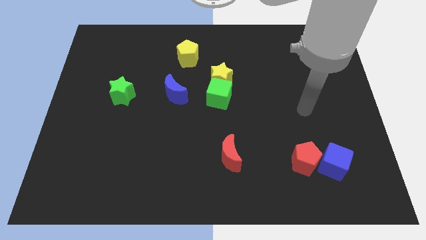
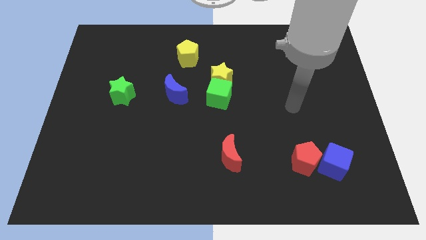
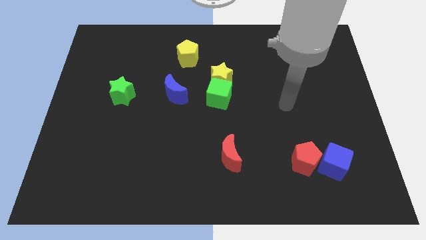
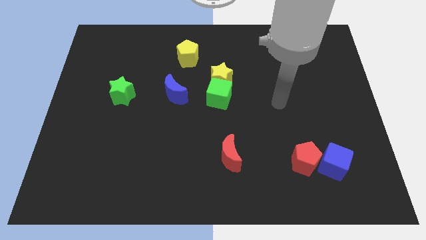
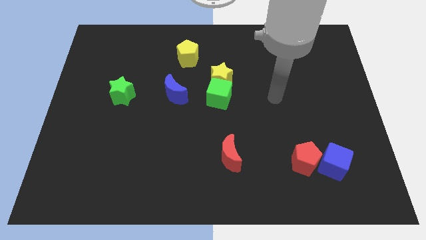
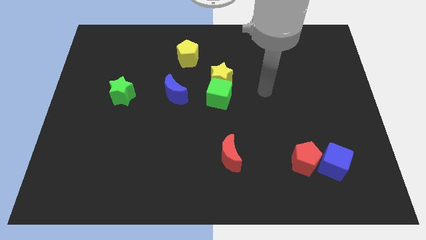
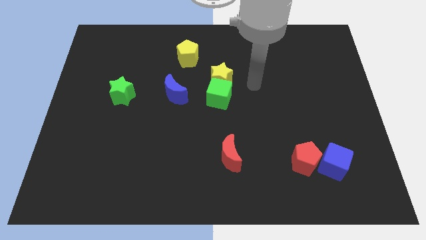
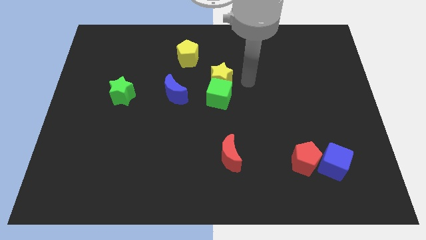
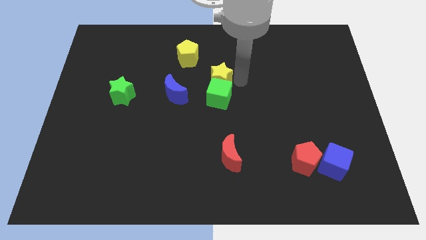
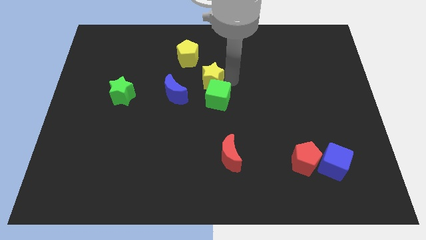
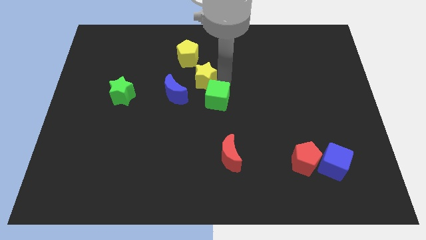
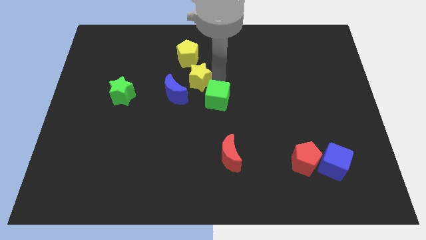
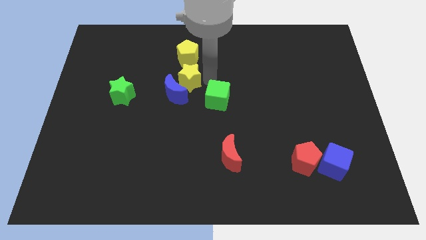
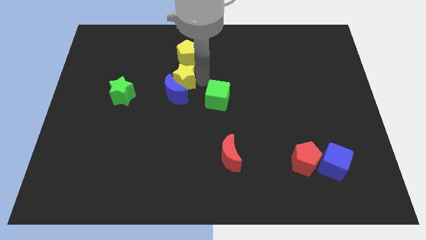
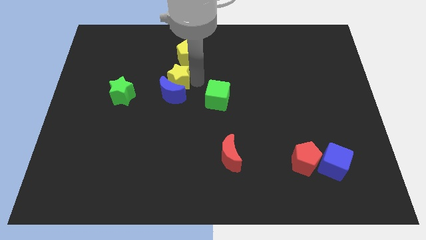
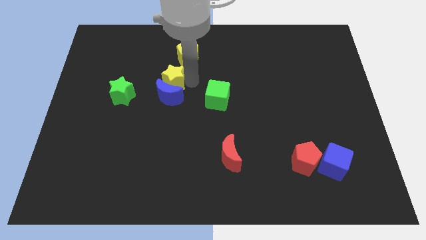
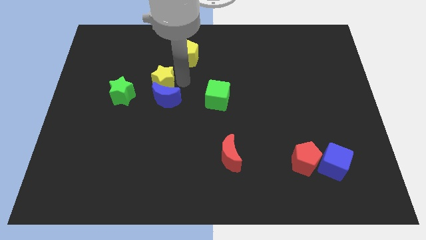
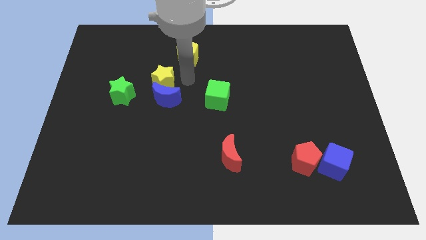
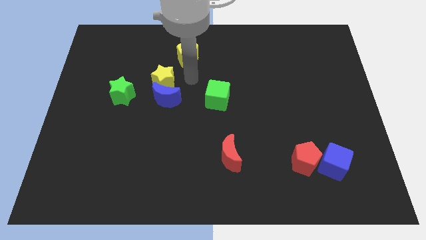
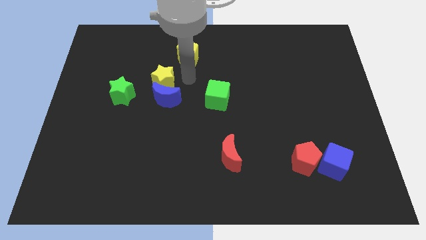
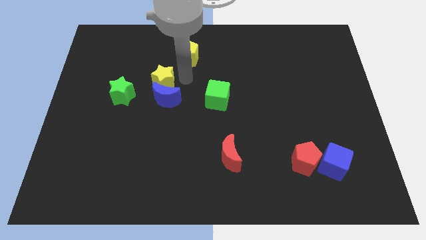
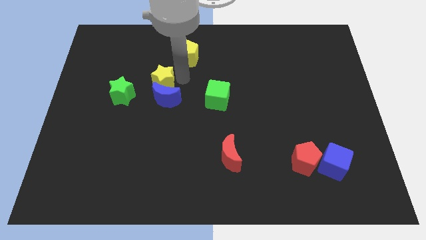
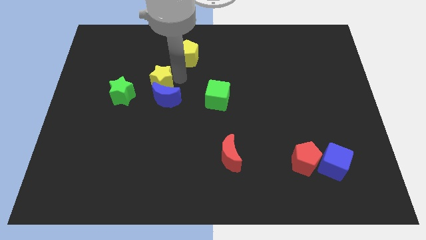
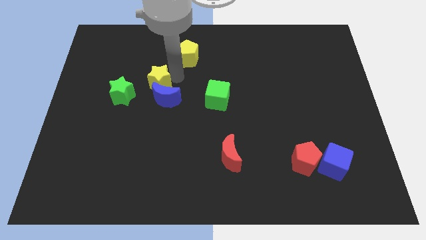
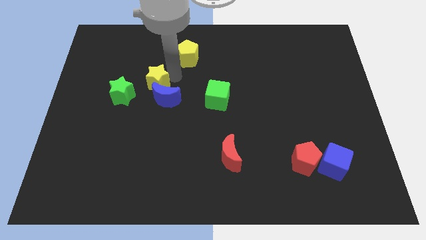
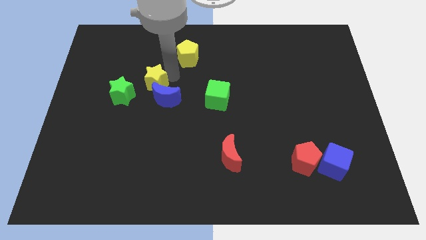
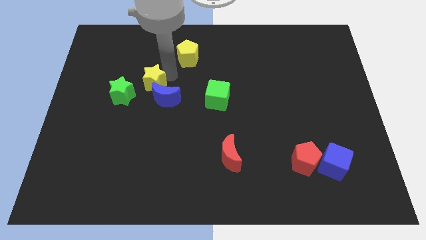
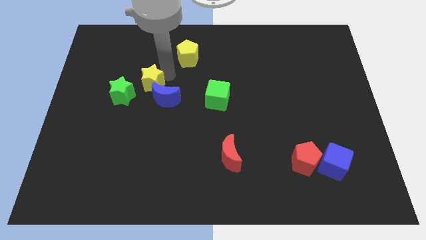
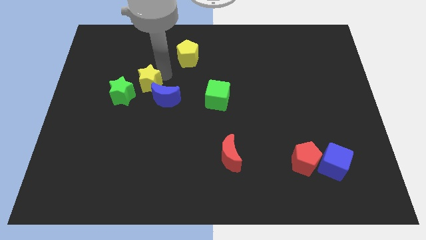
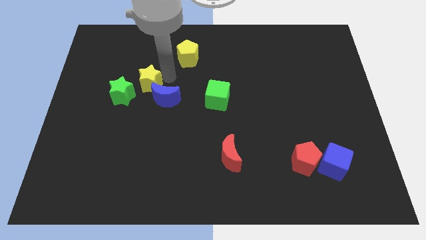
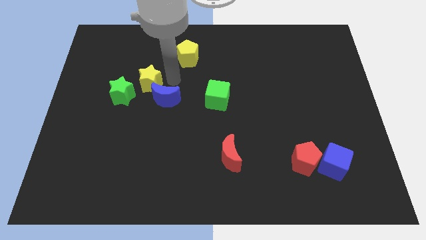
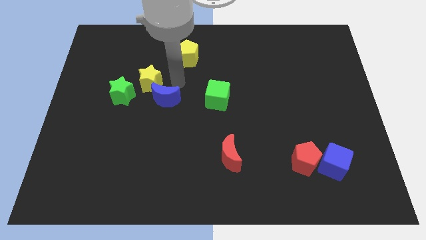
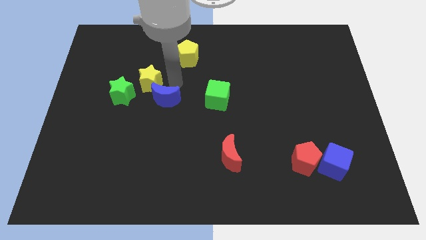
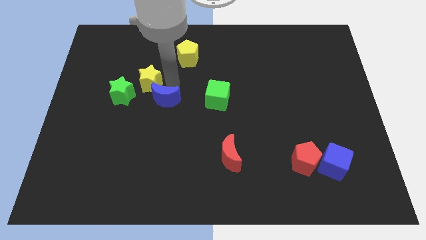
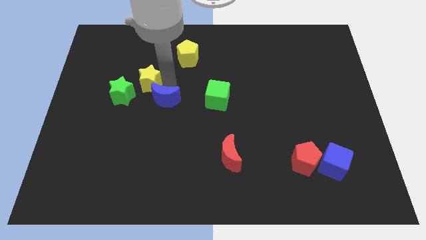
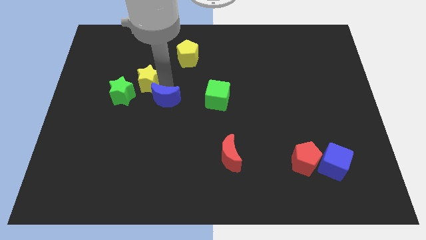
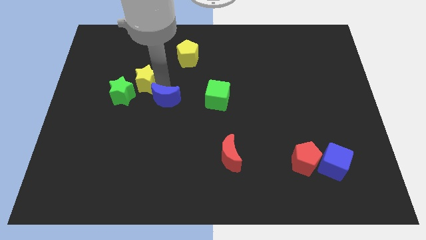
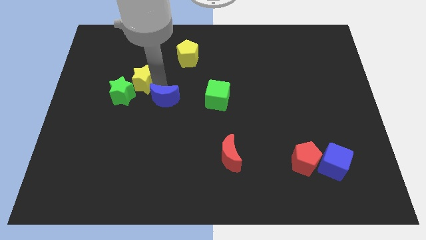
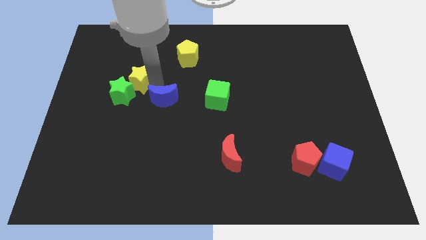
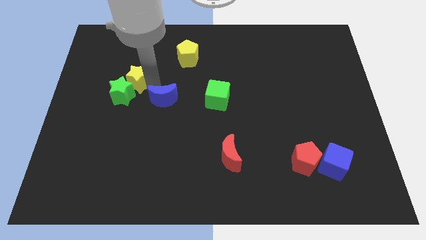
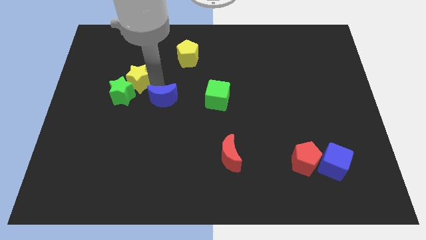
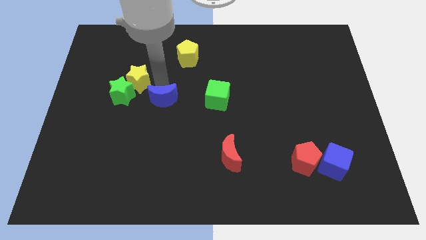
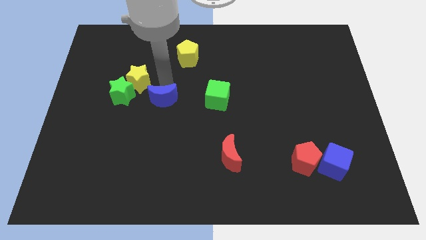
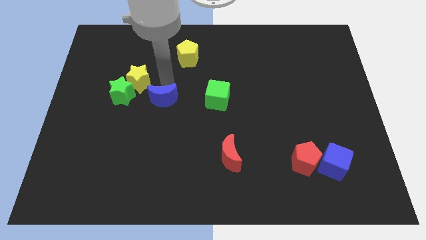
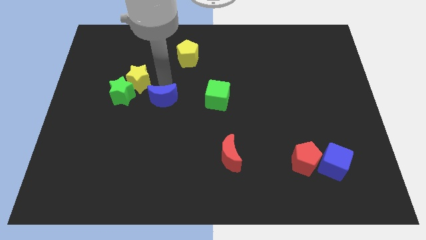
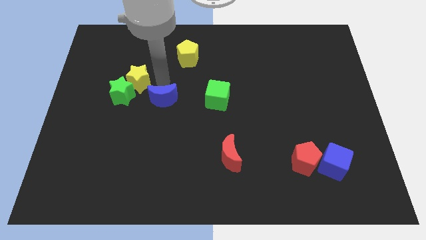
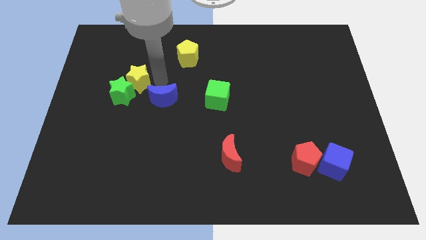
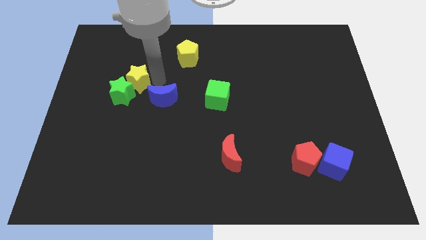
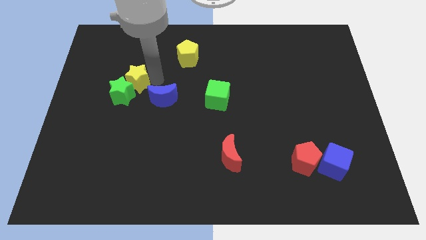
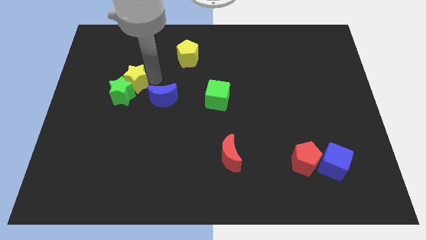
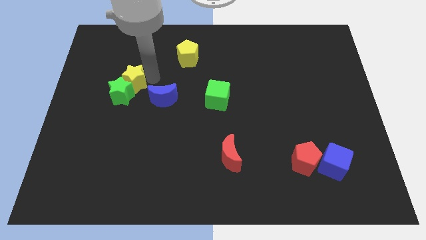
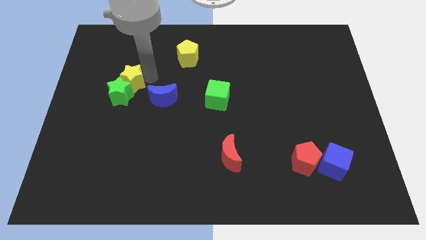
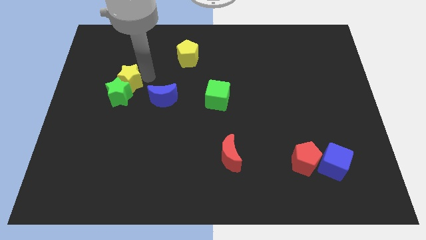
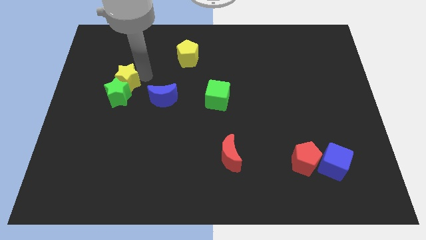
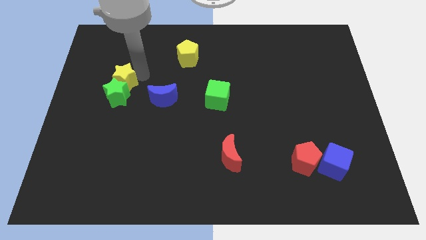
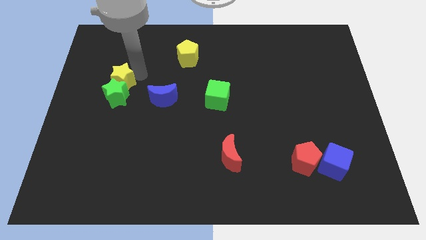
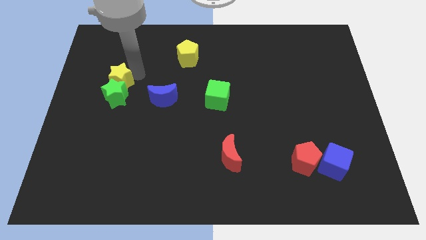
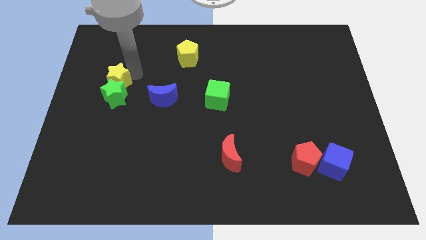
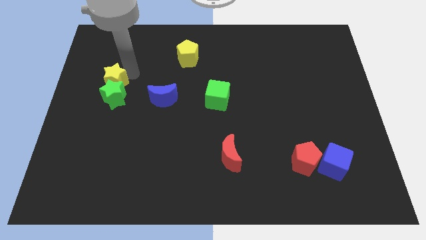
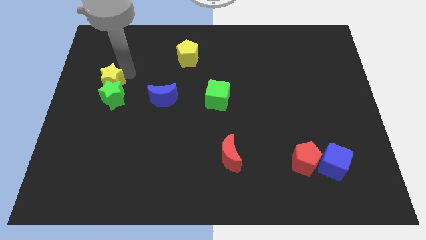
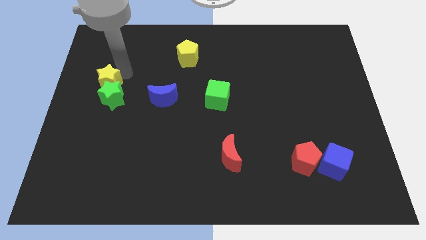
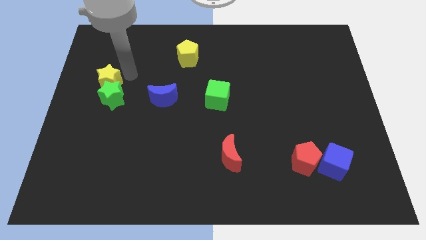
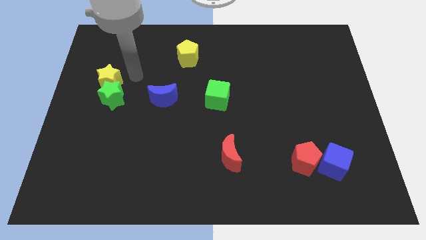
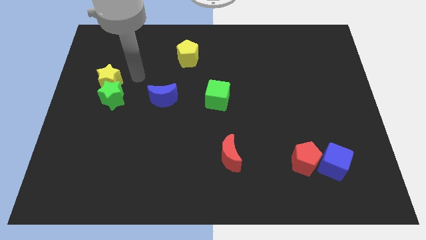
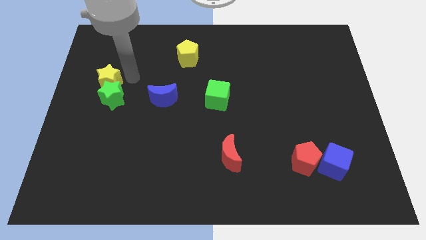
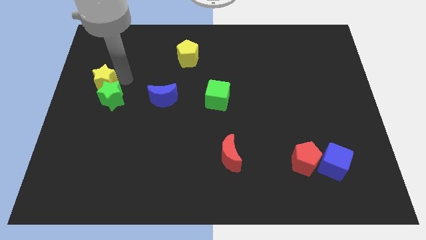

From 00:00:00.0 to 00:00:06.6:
push the yellow star to the left side
